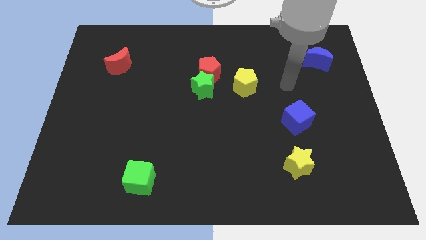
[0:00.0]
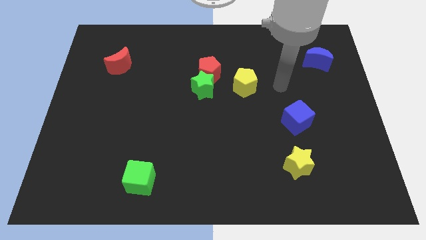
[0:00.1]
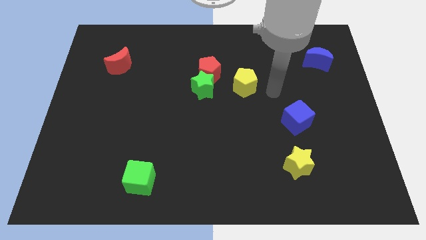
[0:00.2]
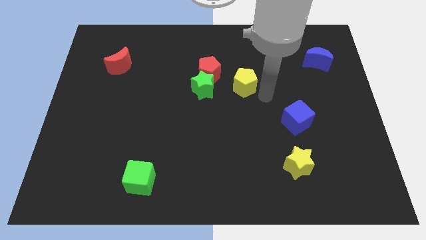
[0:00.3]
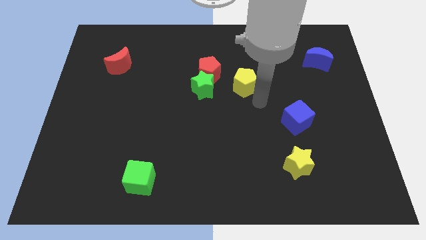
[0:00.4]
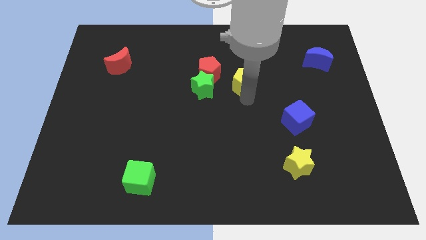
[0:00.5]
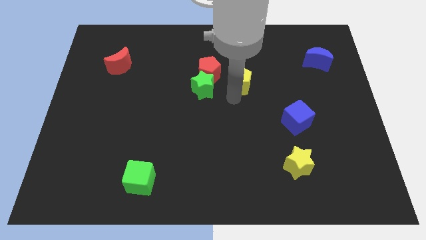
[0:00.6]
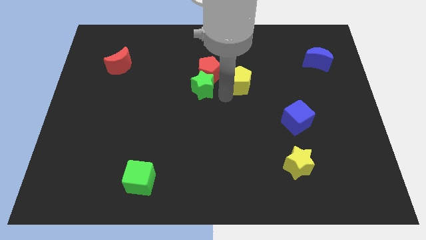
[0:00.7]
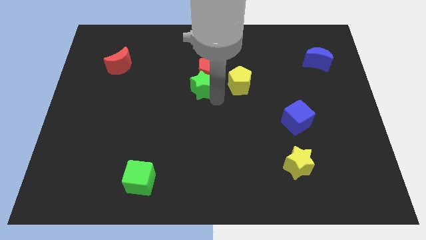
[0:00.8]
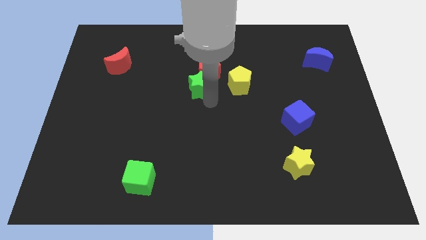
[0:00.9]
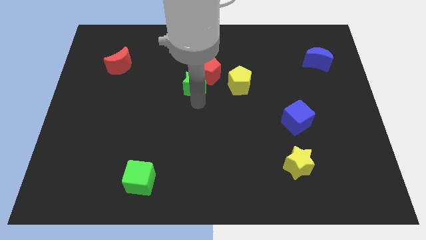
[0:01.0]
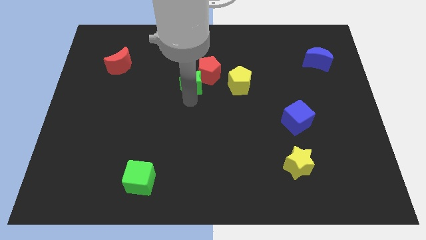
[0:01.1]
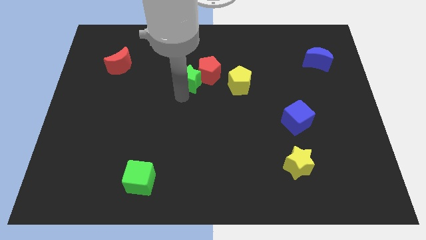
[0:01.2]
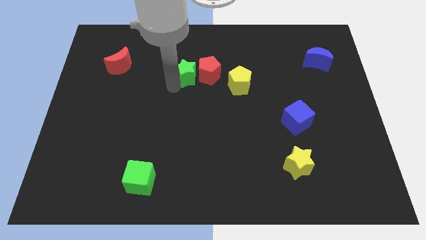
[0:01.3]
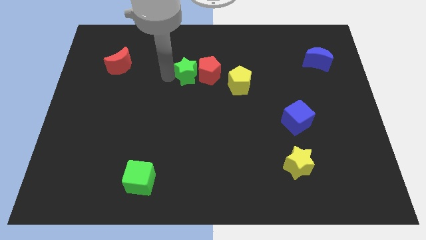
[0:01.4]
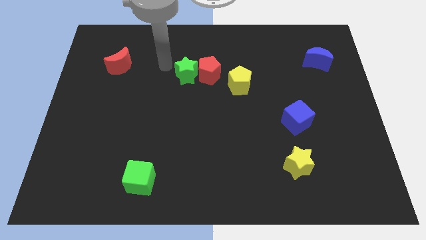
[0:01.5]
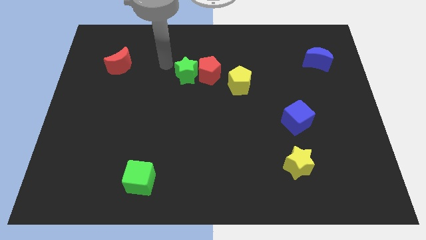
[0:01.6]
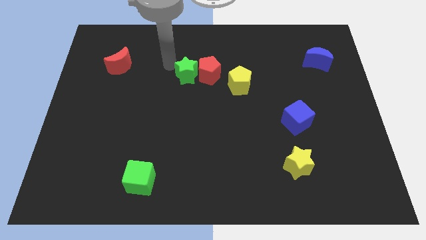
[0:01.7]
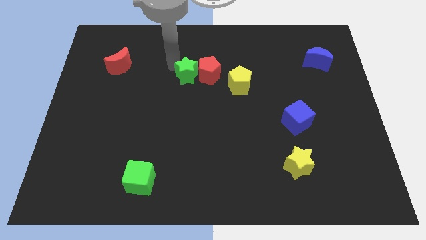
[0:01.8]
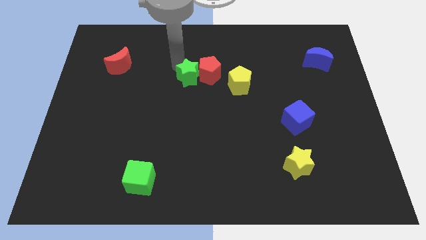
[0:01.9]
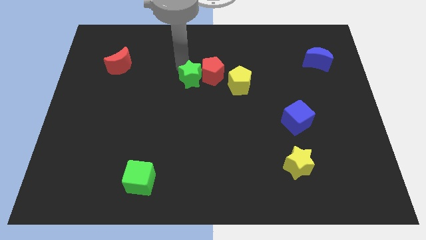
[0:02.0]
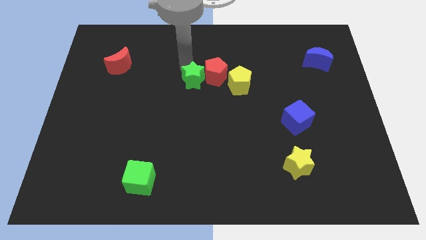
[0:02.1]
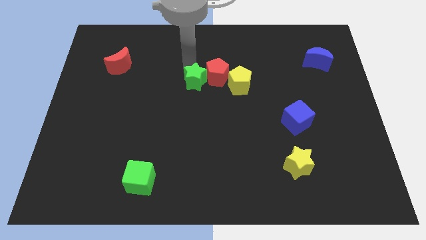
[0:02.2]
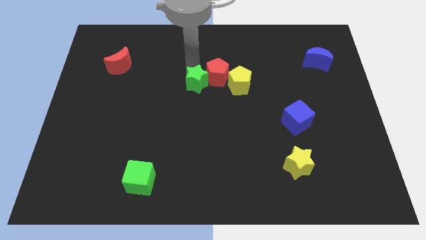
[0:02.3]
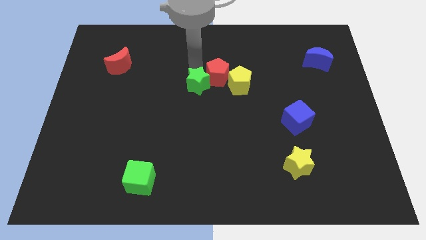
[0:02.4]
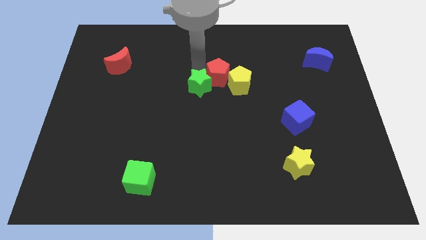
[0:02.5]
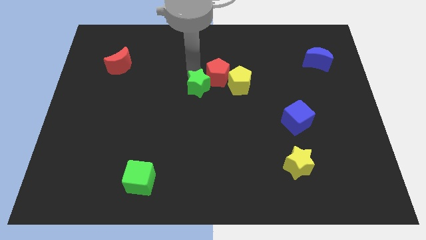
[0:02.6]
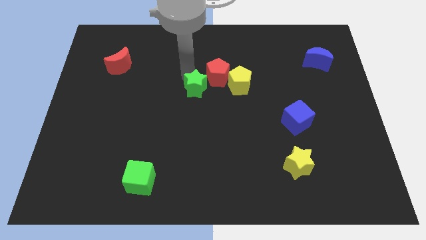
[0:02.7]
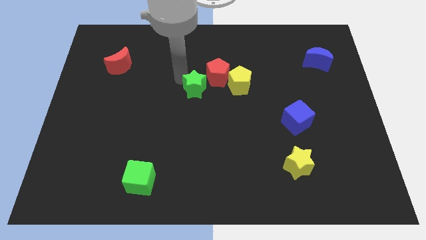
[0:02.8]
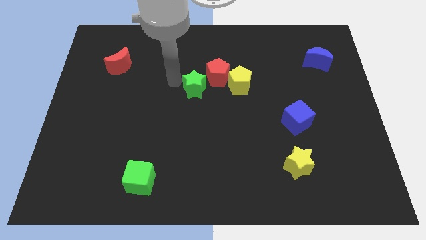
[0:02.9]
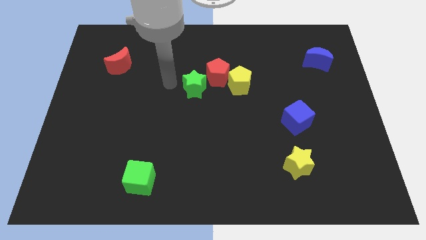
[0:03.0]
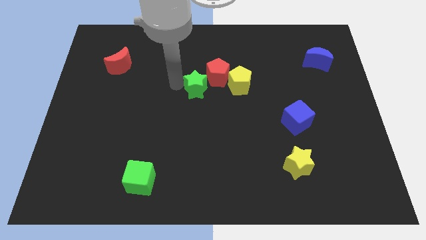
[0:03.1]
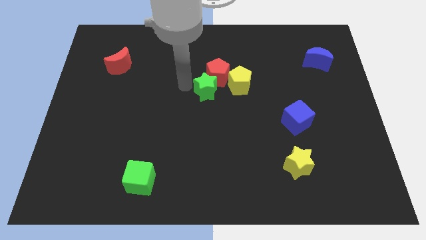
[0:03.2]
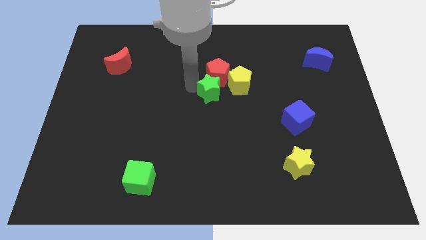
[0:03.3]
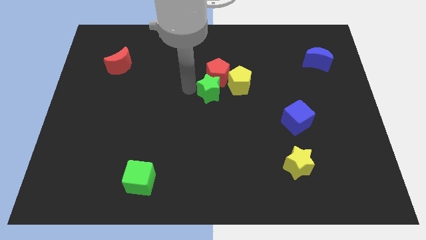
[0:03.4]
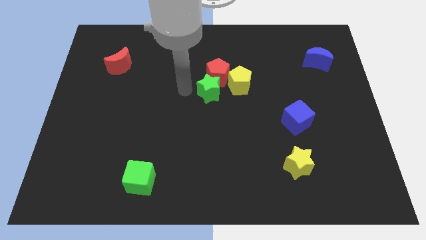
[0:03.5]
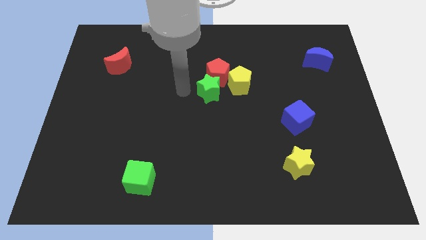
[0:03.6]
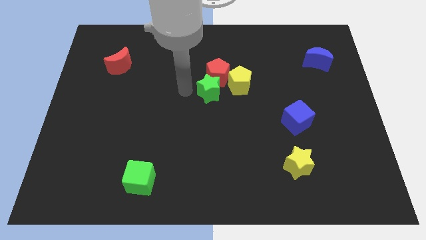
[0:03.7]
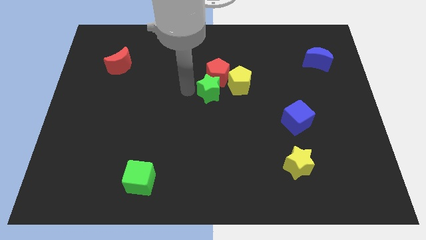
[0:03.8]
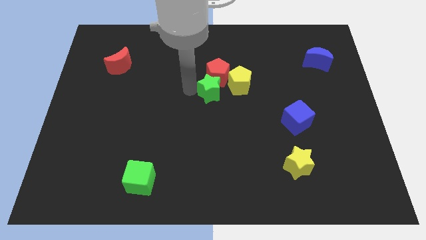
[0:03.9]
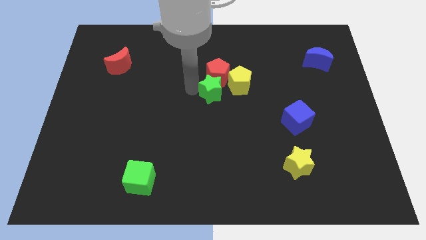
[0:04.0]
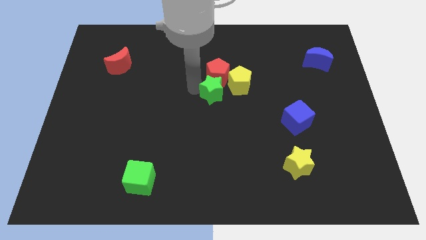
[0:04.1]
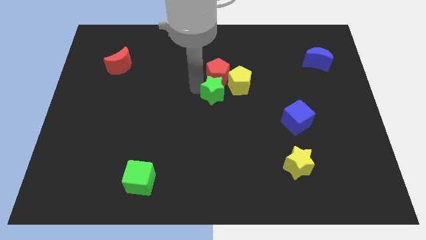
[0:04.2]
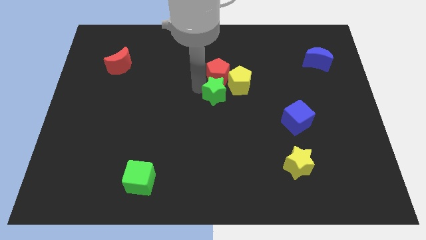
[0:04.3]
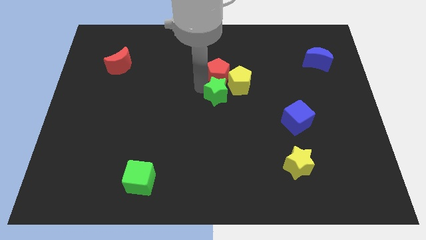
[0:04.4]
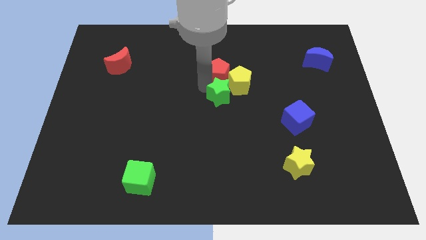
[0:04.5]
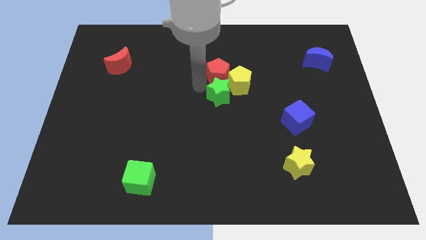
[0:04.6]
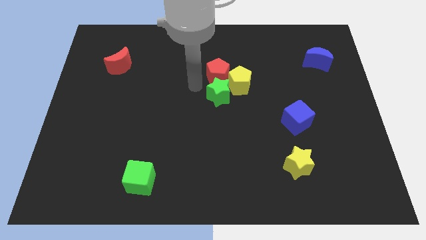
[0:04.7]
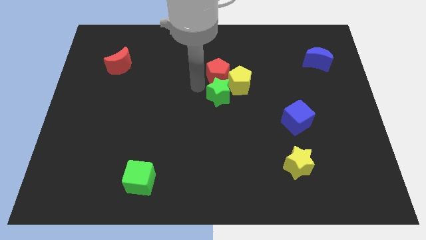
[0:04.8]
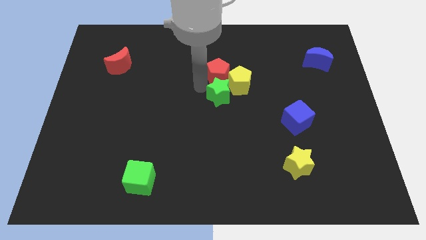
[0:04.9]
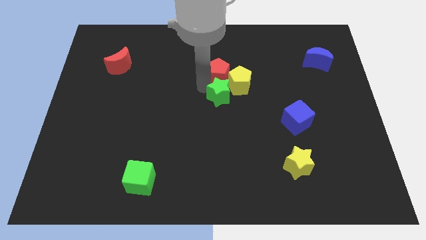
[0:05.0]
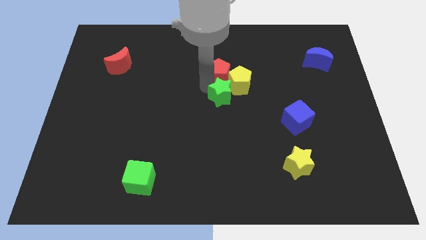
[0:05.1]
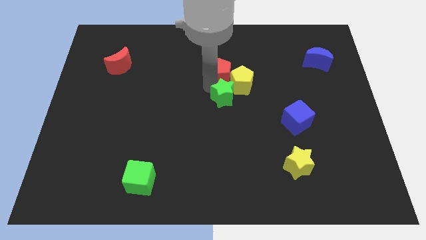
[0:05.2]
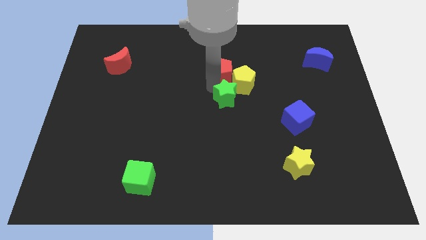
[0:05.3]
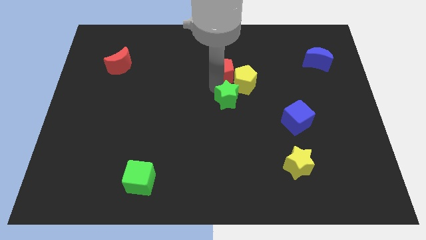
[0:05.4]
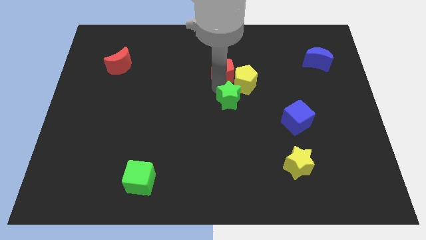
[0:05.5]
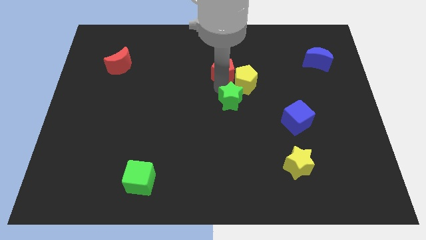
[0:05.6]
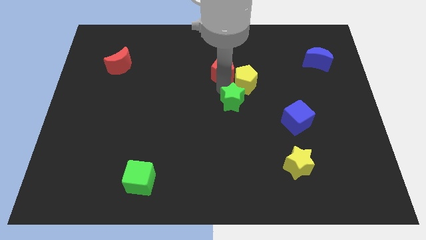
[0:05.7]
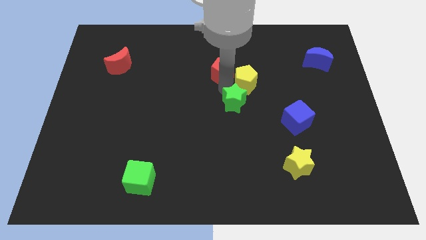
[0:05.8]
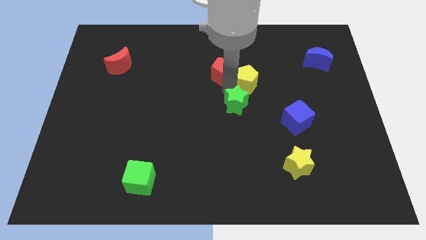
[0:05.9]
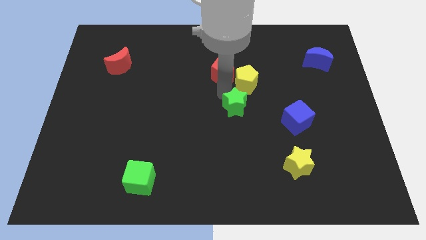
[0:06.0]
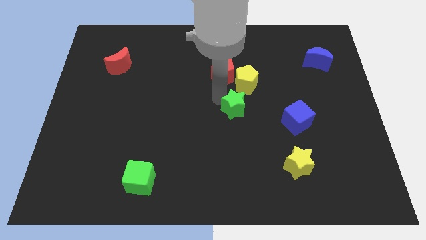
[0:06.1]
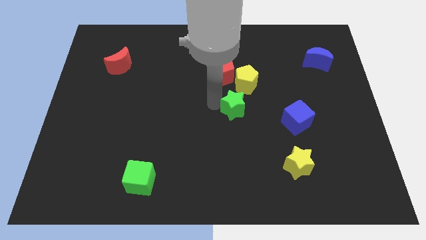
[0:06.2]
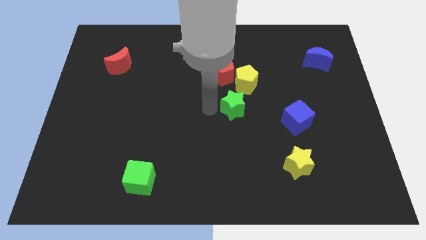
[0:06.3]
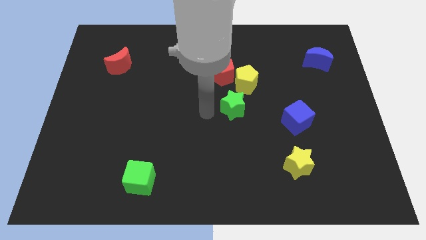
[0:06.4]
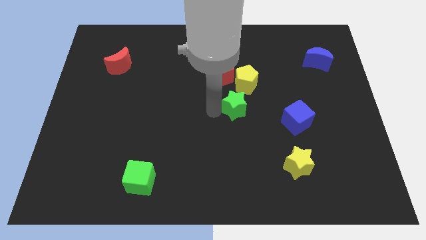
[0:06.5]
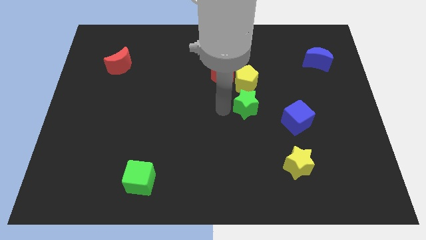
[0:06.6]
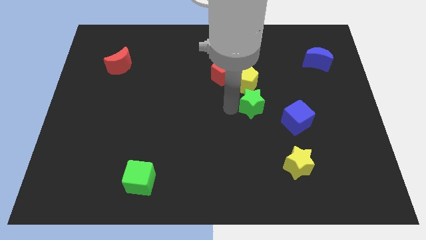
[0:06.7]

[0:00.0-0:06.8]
move the green star diagonally down and to the right of the yellow pentagon
